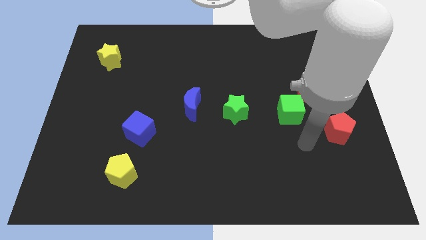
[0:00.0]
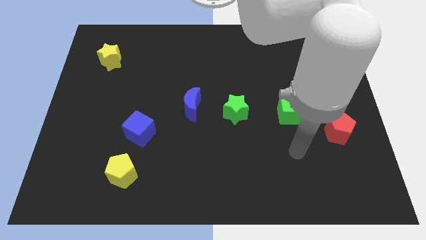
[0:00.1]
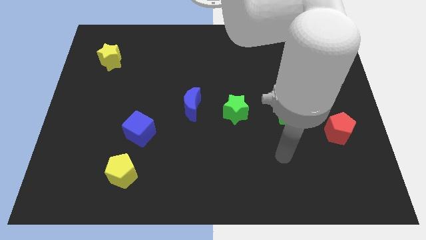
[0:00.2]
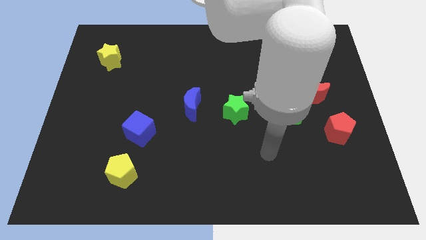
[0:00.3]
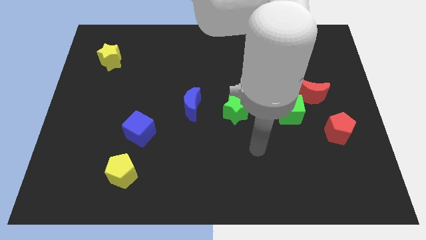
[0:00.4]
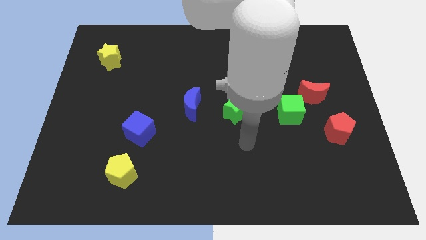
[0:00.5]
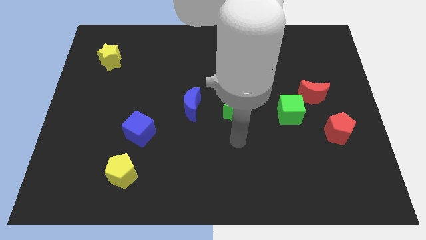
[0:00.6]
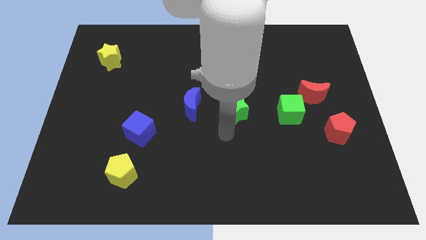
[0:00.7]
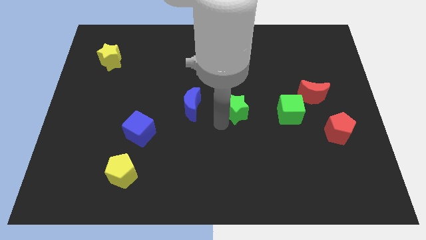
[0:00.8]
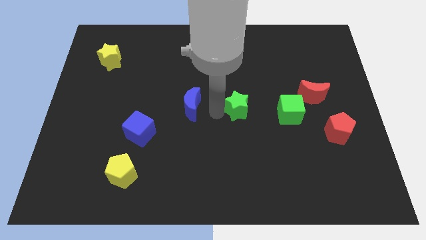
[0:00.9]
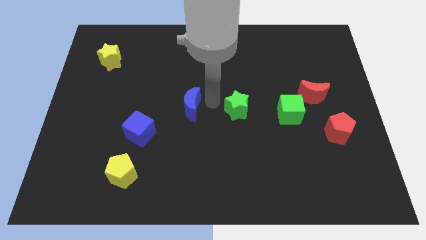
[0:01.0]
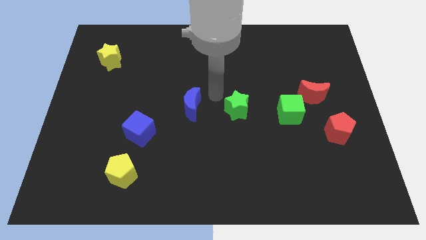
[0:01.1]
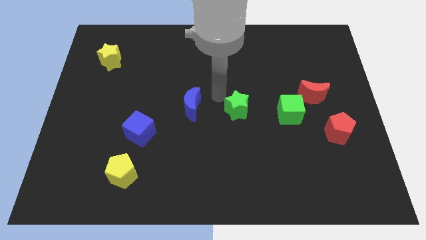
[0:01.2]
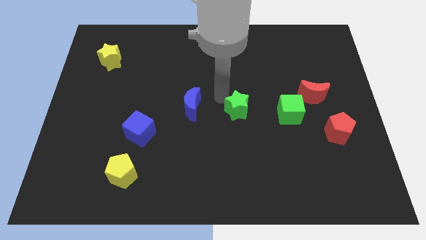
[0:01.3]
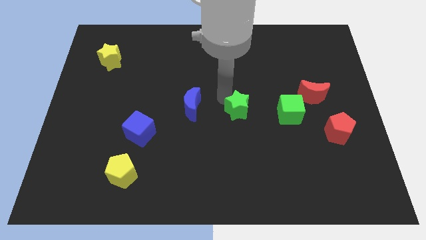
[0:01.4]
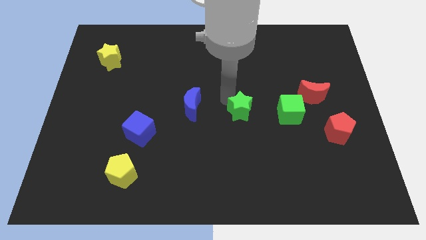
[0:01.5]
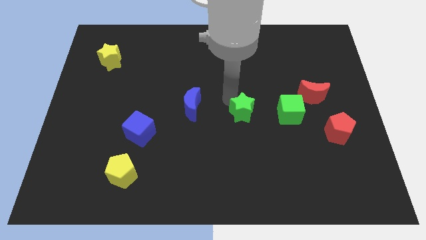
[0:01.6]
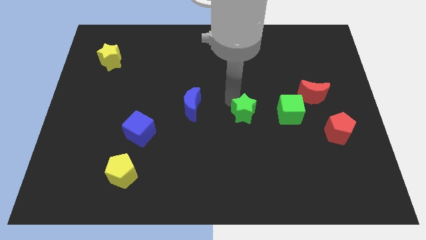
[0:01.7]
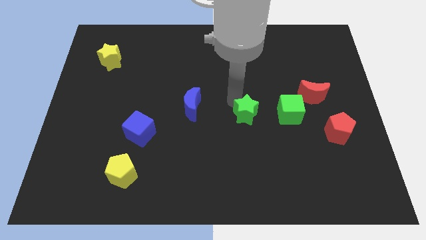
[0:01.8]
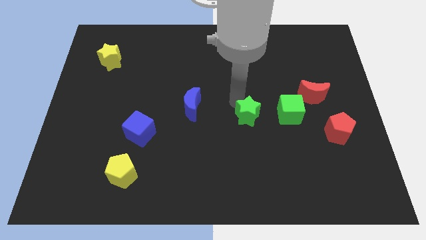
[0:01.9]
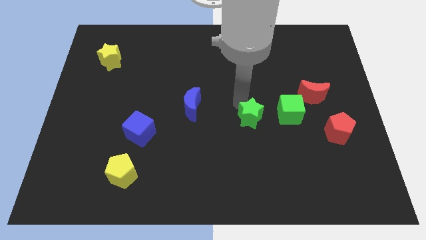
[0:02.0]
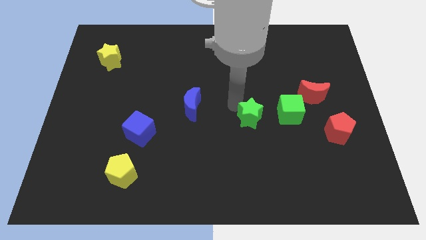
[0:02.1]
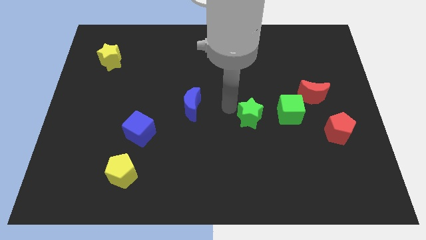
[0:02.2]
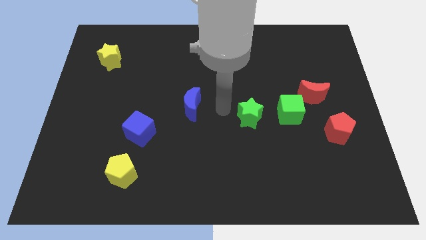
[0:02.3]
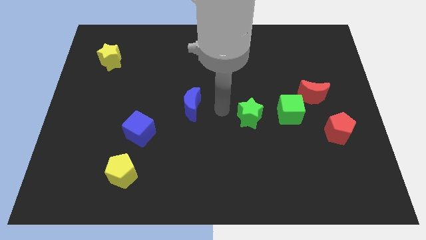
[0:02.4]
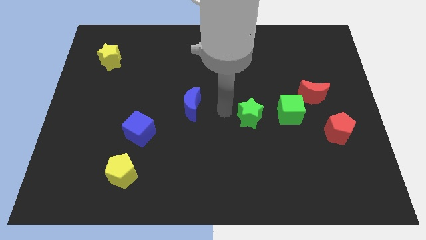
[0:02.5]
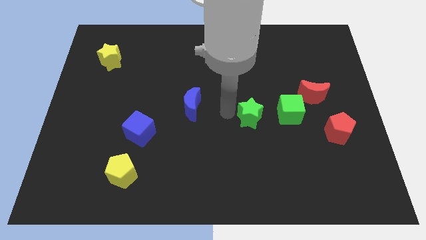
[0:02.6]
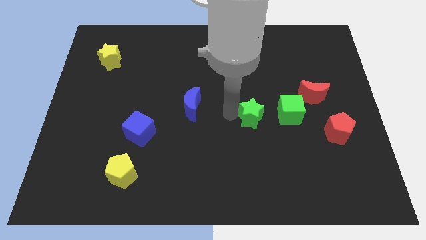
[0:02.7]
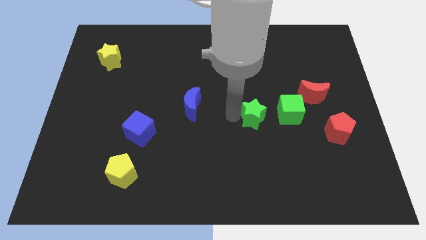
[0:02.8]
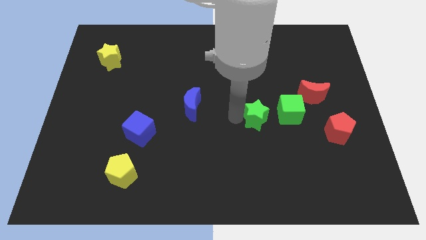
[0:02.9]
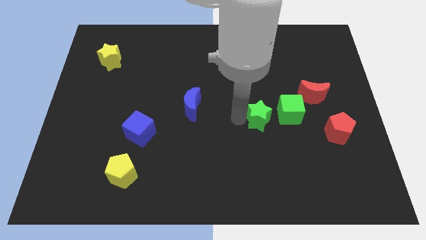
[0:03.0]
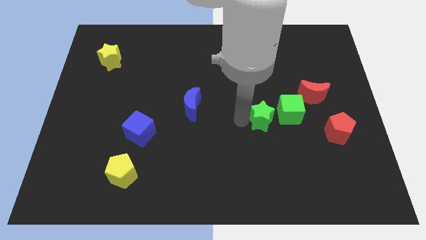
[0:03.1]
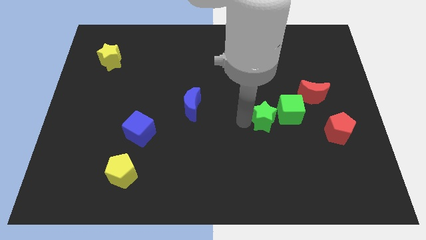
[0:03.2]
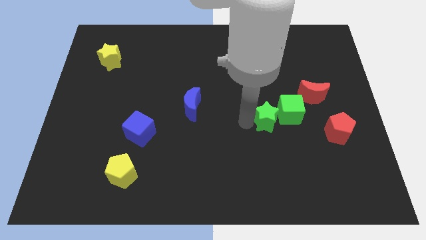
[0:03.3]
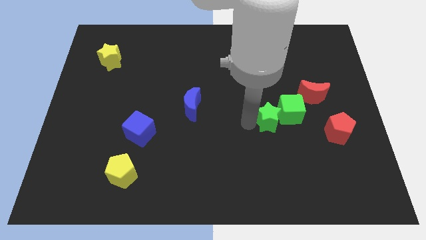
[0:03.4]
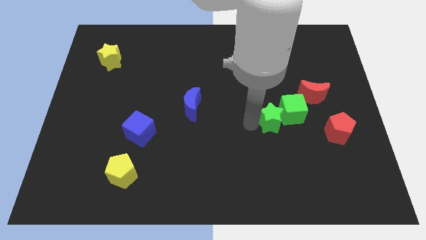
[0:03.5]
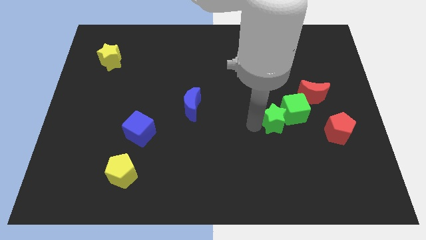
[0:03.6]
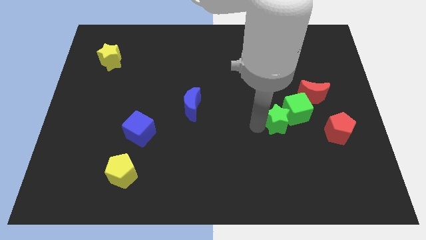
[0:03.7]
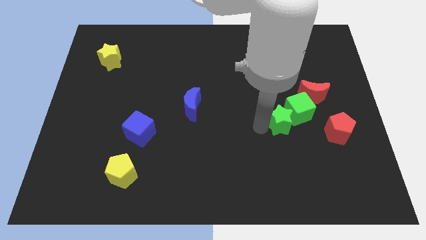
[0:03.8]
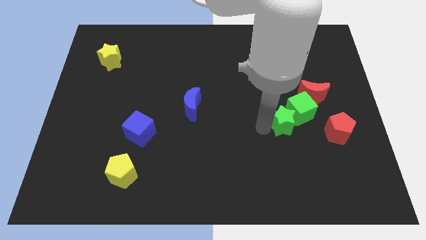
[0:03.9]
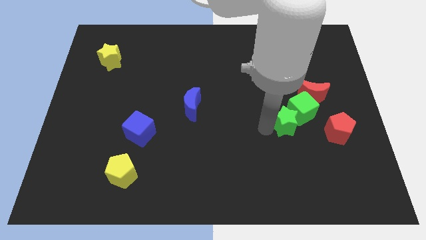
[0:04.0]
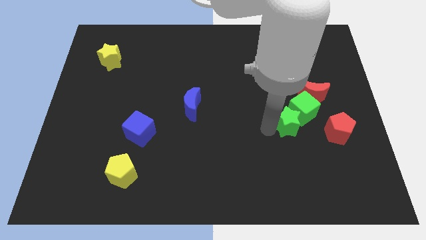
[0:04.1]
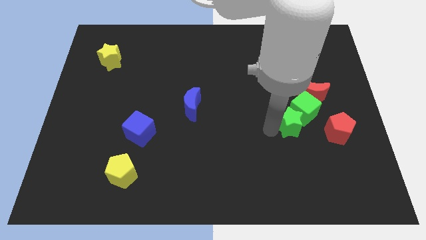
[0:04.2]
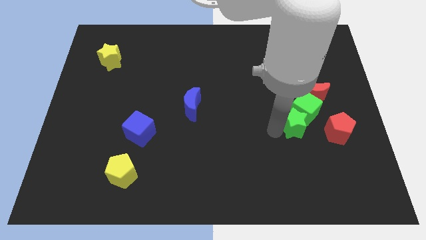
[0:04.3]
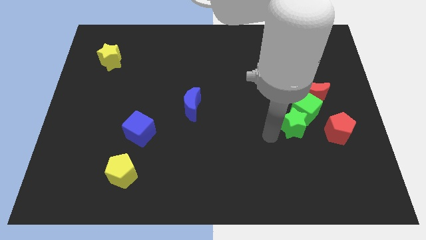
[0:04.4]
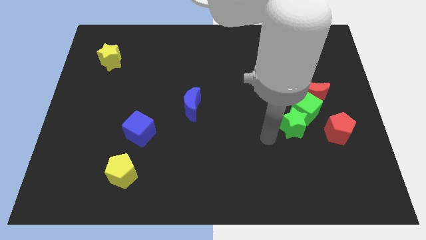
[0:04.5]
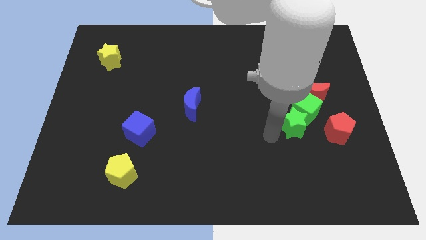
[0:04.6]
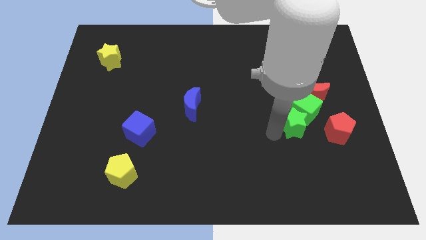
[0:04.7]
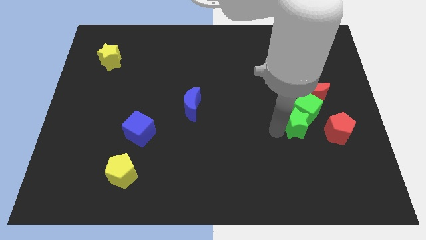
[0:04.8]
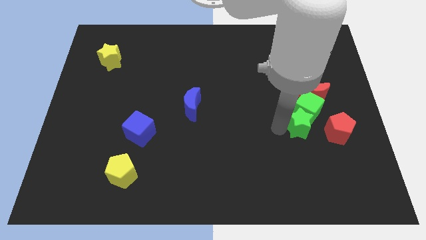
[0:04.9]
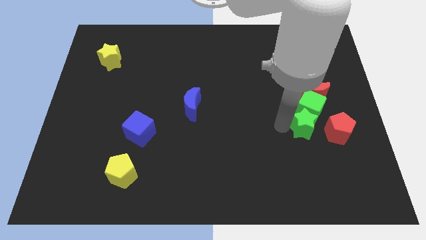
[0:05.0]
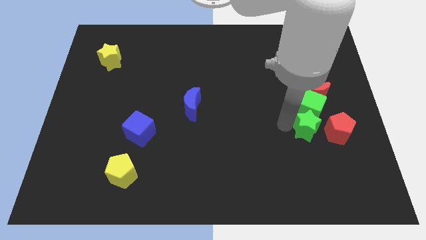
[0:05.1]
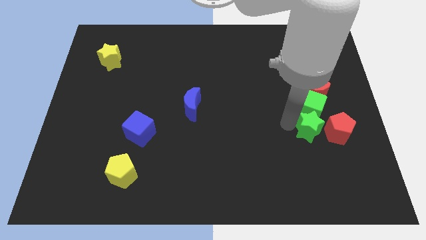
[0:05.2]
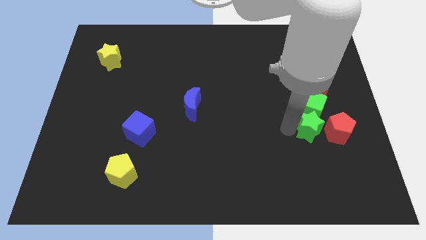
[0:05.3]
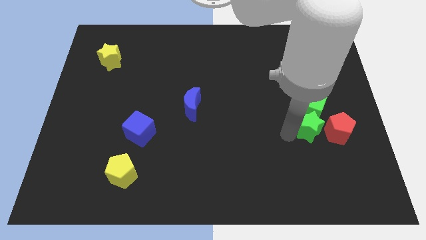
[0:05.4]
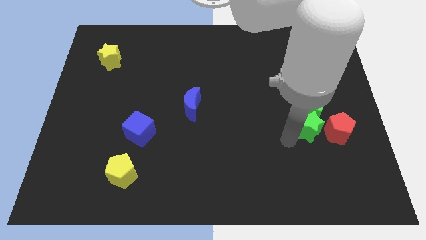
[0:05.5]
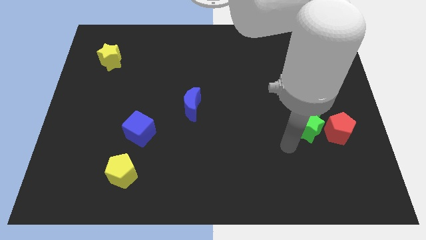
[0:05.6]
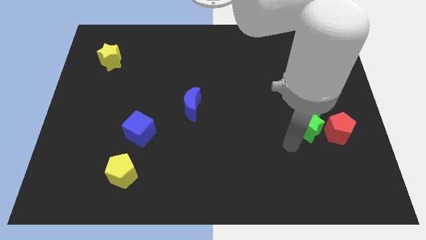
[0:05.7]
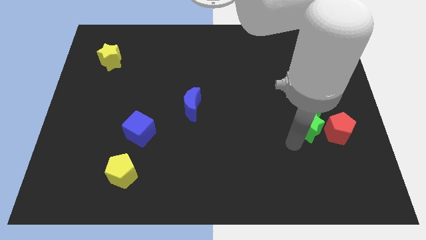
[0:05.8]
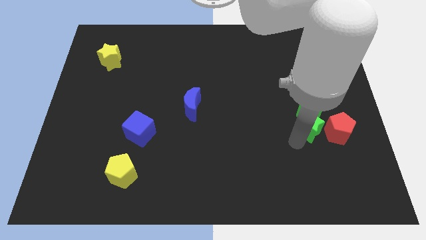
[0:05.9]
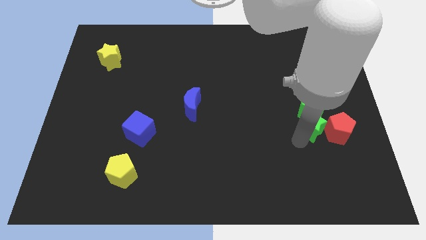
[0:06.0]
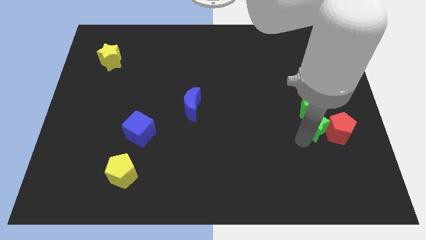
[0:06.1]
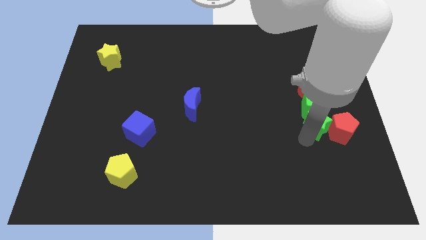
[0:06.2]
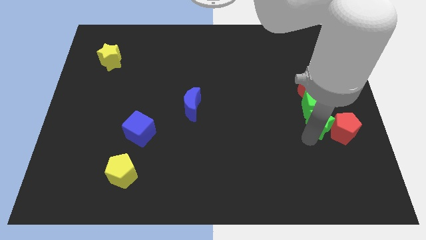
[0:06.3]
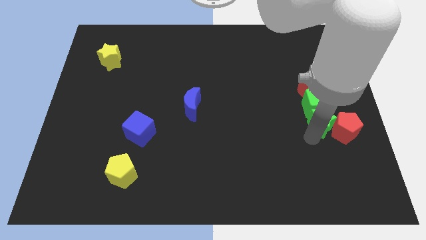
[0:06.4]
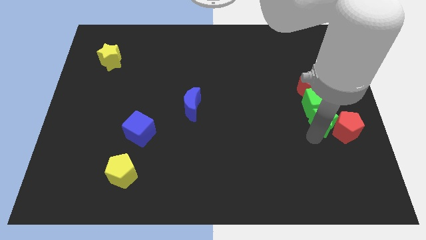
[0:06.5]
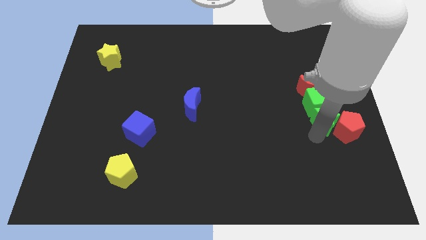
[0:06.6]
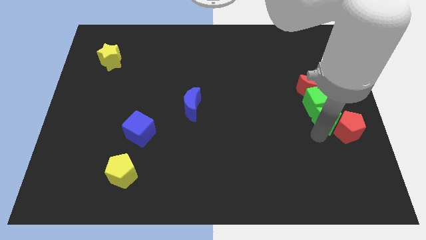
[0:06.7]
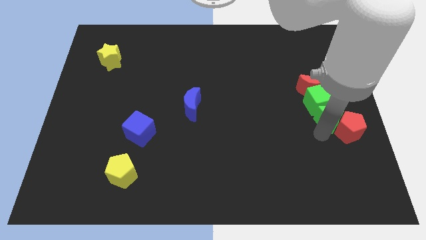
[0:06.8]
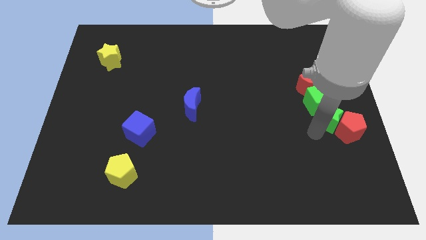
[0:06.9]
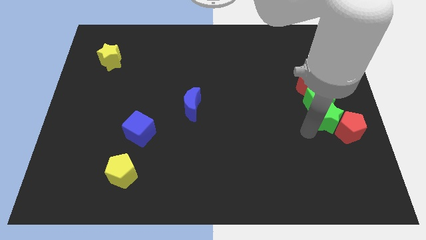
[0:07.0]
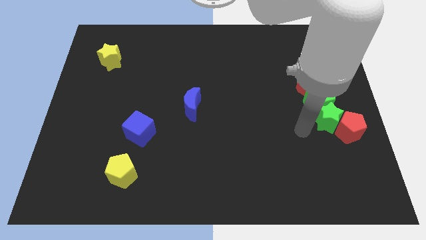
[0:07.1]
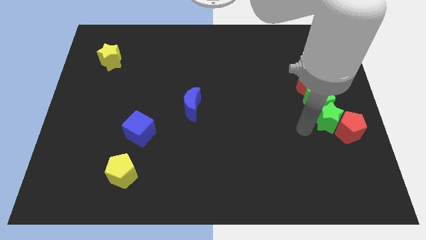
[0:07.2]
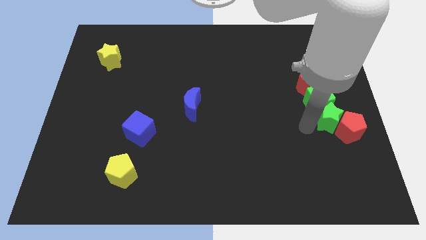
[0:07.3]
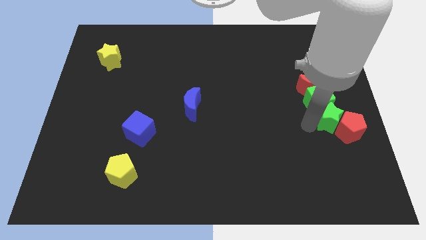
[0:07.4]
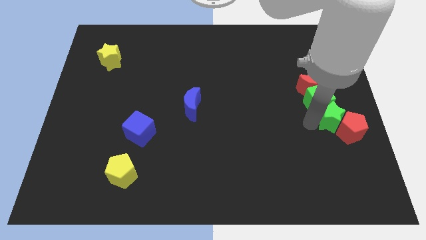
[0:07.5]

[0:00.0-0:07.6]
put the green star to the center right

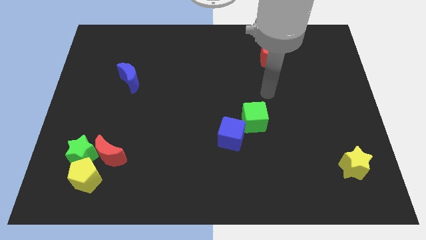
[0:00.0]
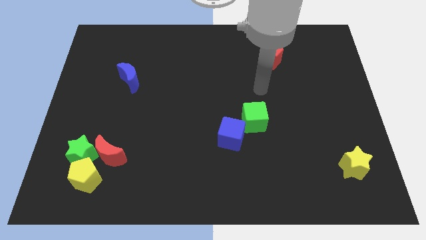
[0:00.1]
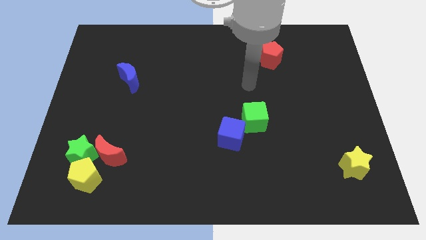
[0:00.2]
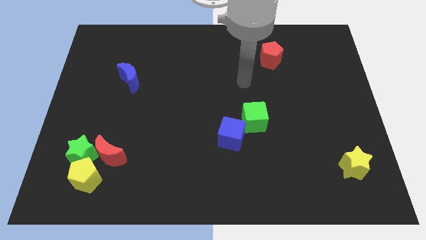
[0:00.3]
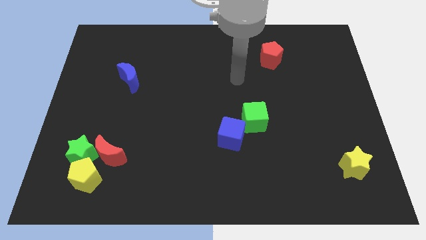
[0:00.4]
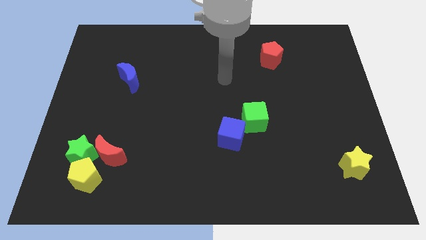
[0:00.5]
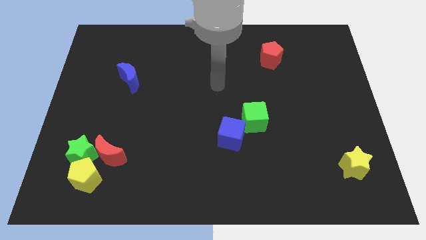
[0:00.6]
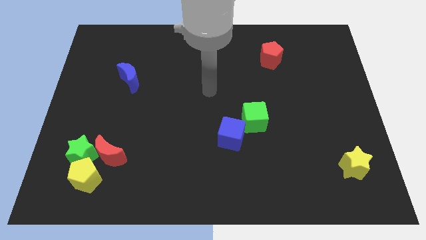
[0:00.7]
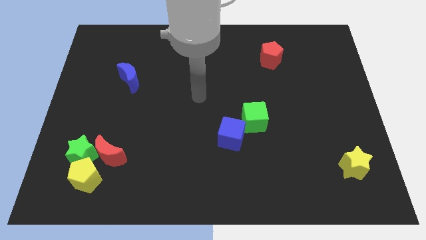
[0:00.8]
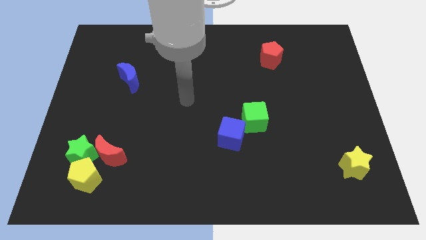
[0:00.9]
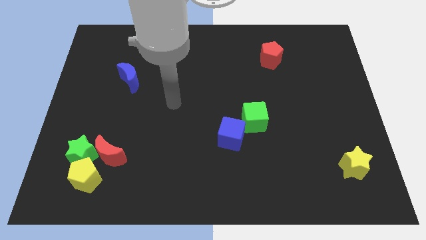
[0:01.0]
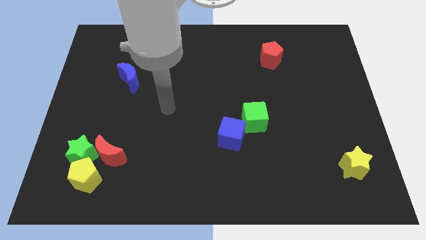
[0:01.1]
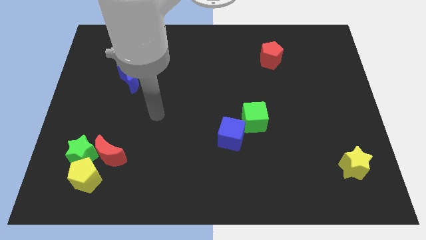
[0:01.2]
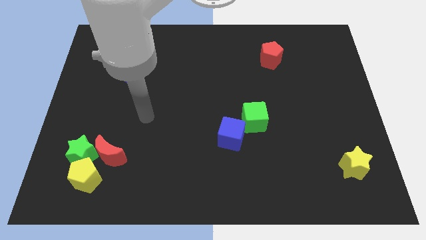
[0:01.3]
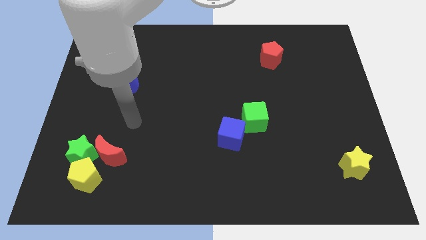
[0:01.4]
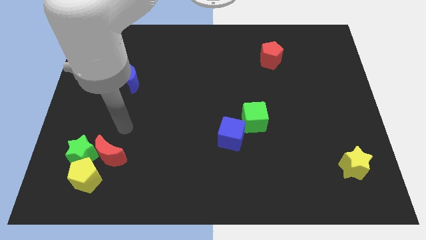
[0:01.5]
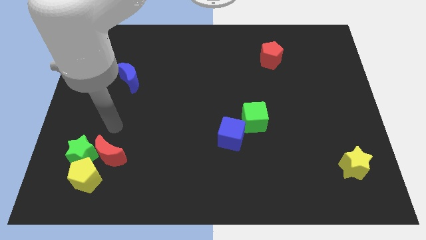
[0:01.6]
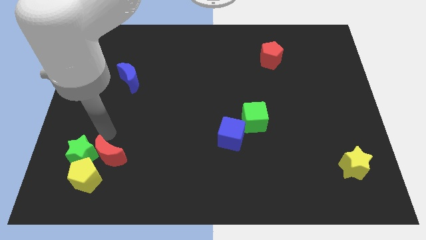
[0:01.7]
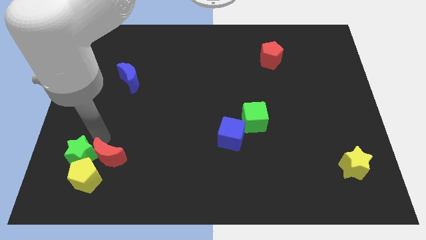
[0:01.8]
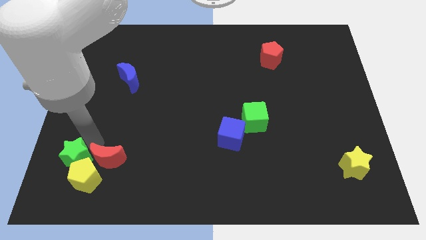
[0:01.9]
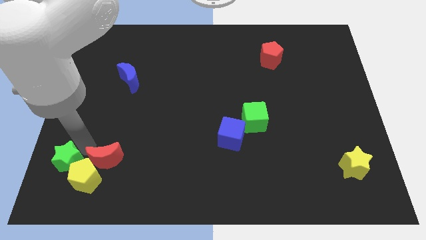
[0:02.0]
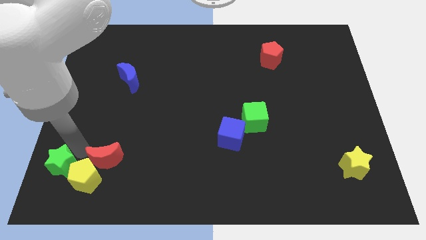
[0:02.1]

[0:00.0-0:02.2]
slide the green star to the bottom left corner
